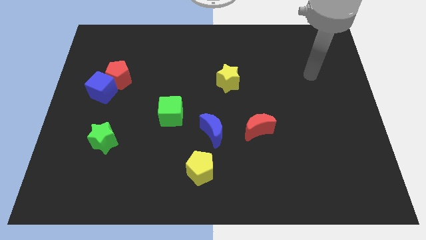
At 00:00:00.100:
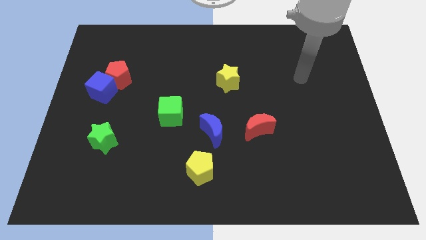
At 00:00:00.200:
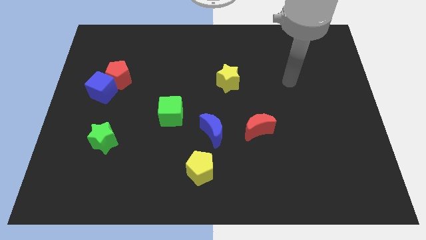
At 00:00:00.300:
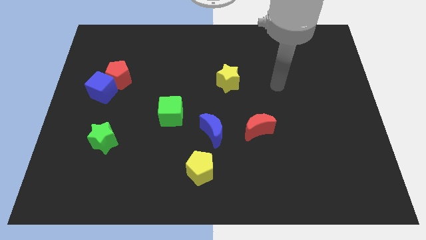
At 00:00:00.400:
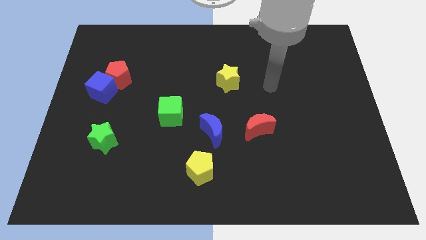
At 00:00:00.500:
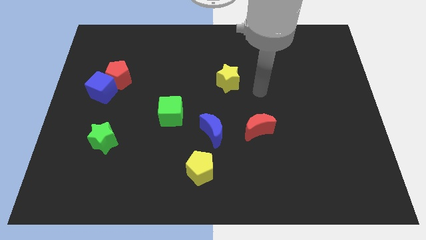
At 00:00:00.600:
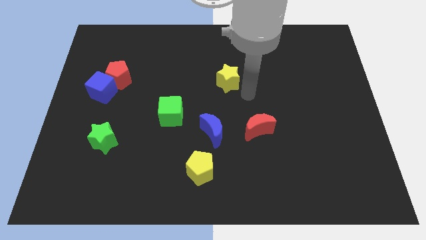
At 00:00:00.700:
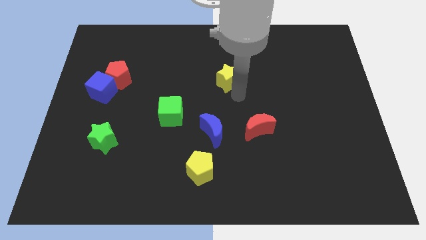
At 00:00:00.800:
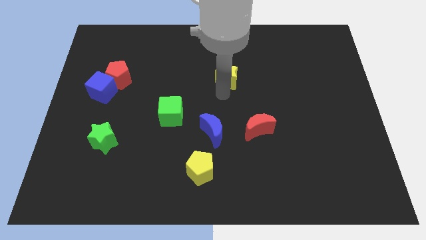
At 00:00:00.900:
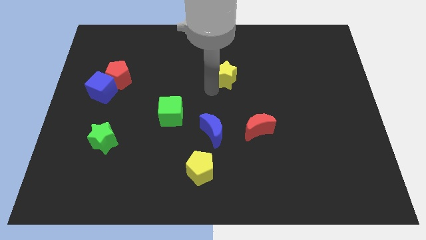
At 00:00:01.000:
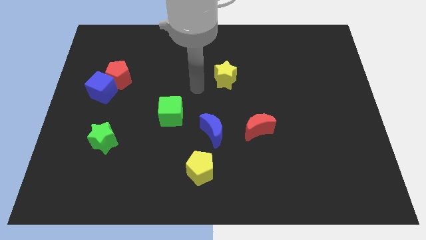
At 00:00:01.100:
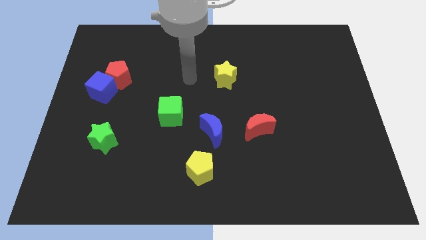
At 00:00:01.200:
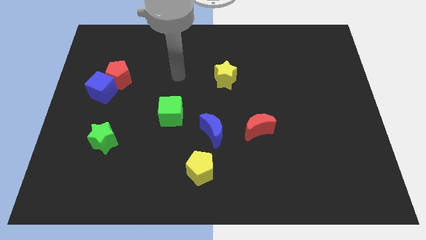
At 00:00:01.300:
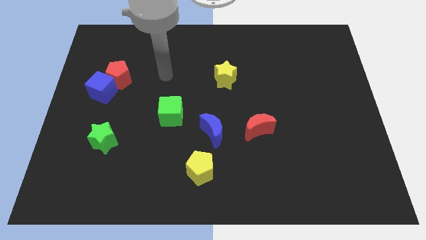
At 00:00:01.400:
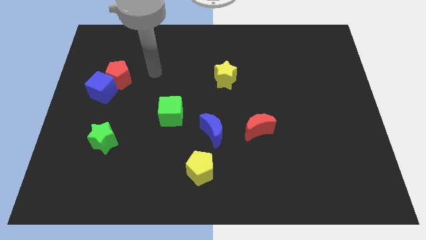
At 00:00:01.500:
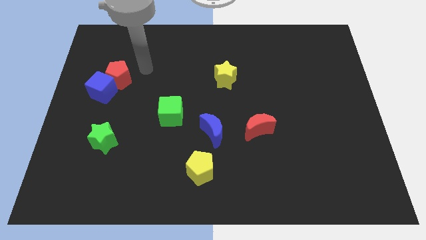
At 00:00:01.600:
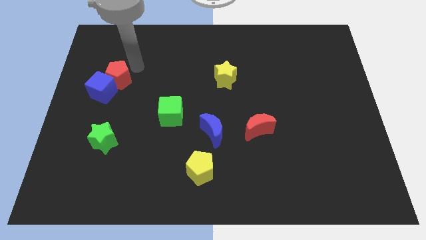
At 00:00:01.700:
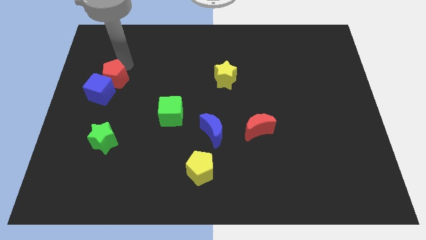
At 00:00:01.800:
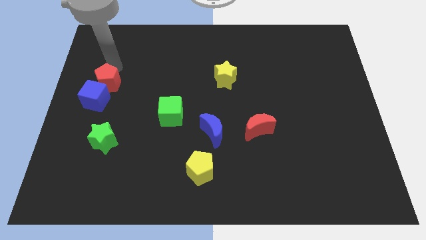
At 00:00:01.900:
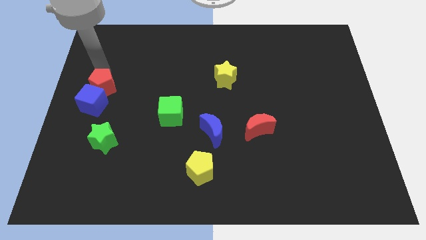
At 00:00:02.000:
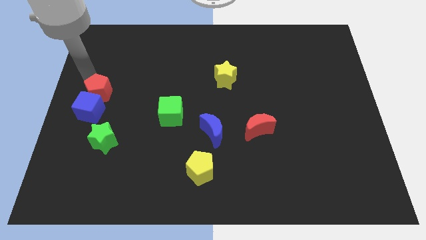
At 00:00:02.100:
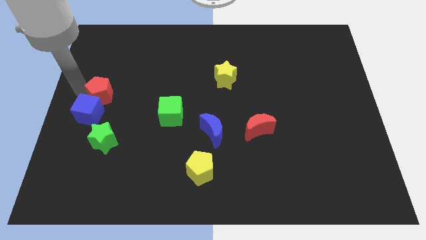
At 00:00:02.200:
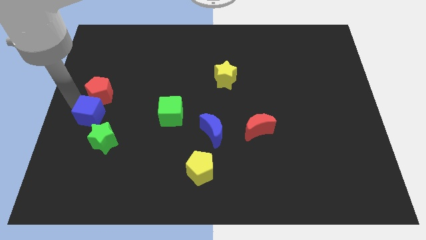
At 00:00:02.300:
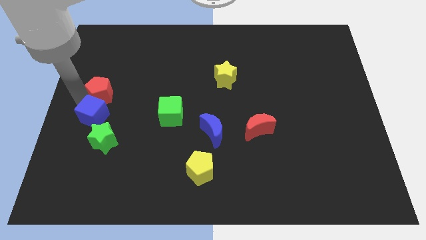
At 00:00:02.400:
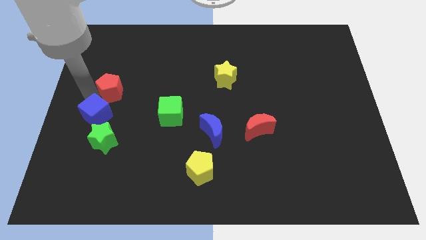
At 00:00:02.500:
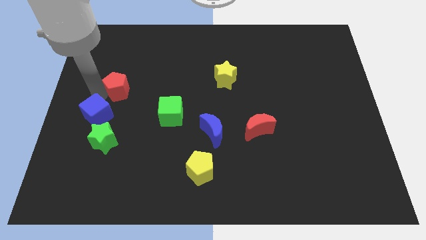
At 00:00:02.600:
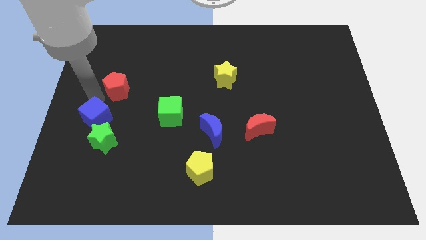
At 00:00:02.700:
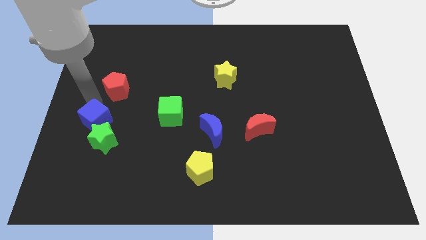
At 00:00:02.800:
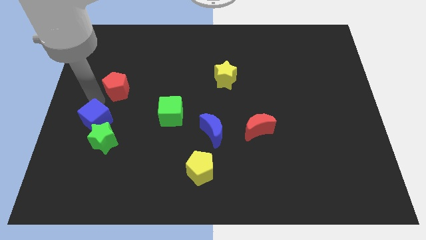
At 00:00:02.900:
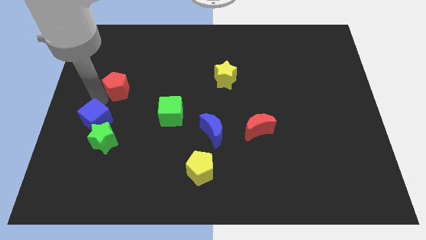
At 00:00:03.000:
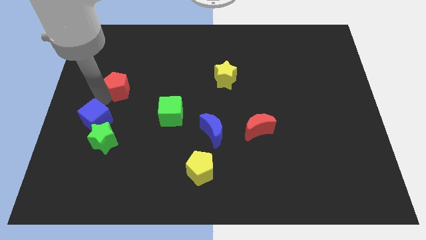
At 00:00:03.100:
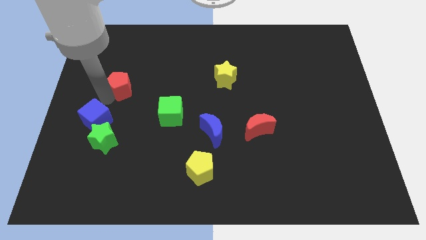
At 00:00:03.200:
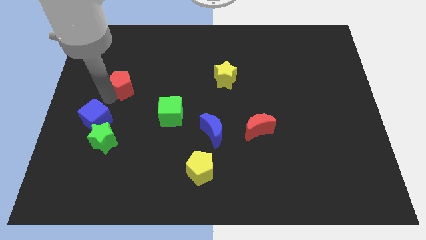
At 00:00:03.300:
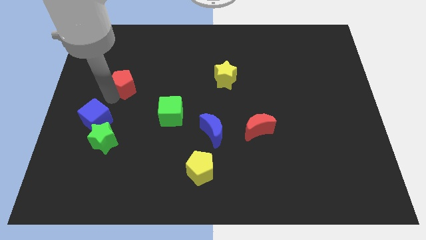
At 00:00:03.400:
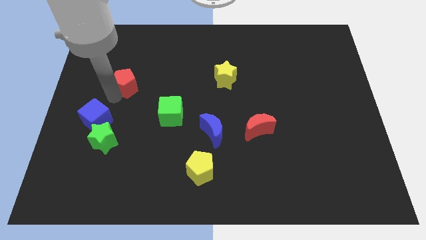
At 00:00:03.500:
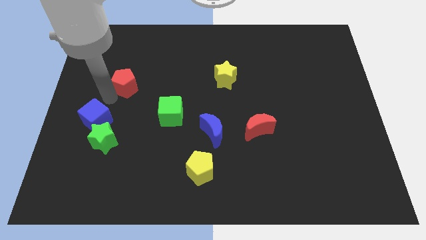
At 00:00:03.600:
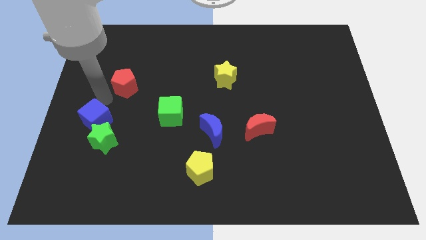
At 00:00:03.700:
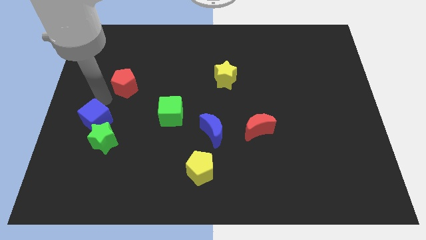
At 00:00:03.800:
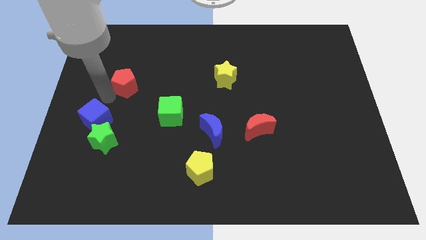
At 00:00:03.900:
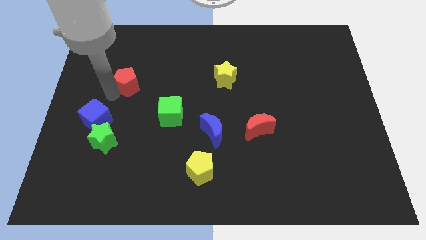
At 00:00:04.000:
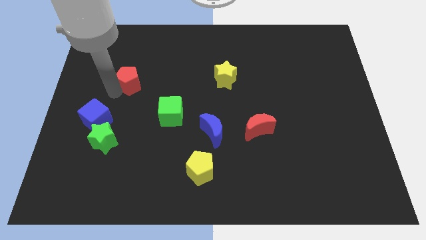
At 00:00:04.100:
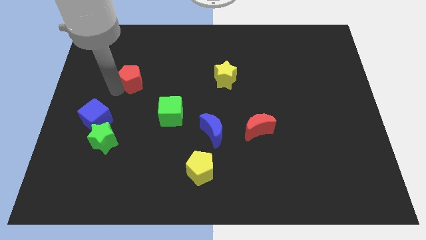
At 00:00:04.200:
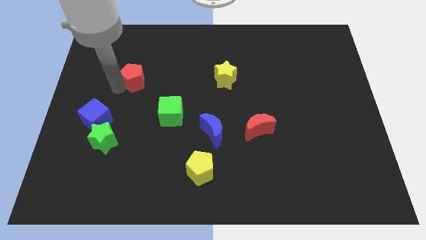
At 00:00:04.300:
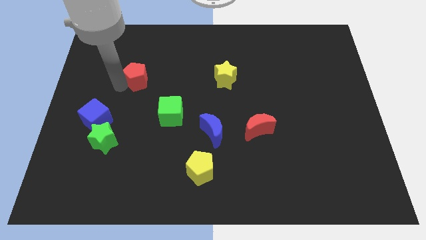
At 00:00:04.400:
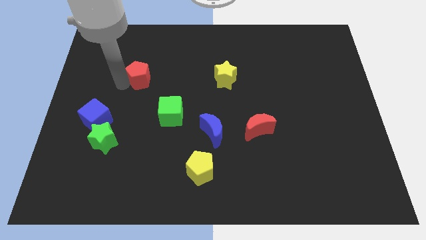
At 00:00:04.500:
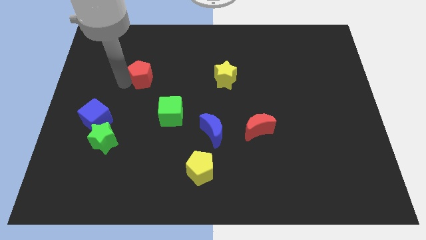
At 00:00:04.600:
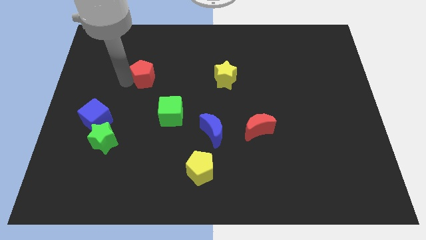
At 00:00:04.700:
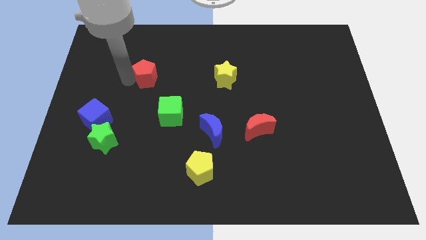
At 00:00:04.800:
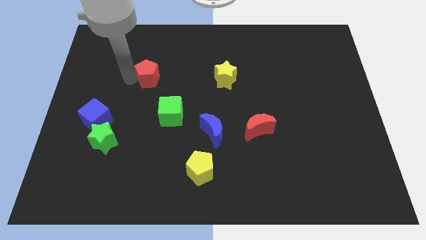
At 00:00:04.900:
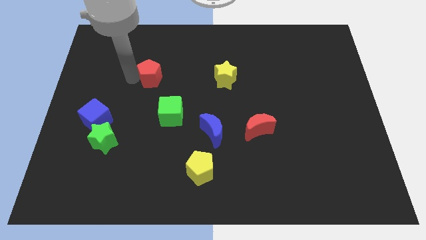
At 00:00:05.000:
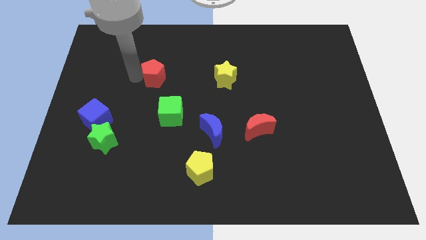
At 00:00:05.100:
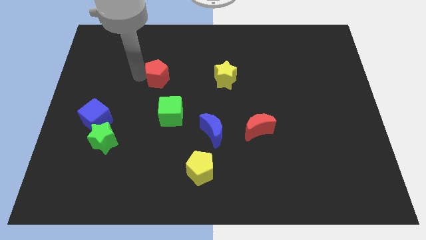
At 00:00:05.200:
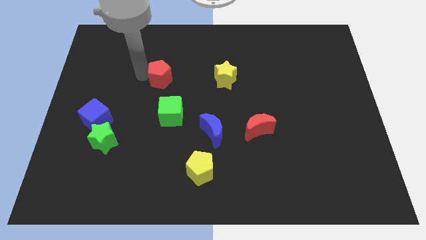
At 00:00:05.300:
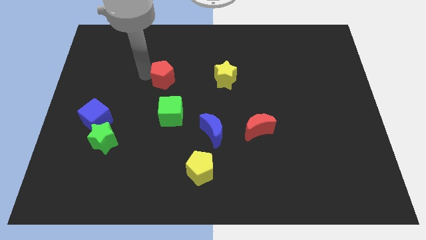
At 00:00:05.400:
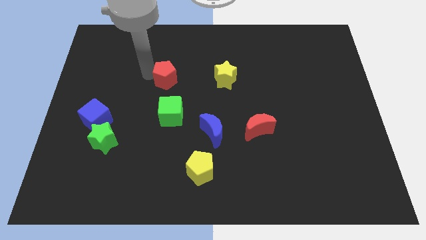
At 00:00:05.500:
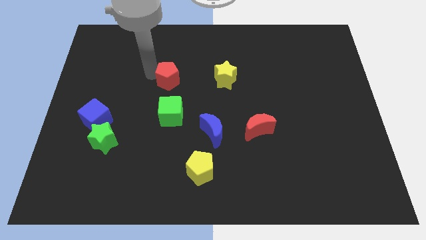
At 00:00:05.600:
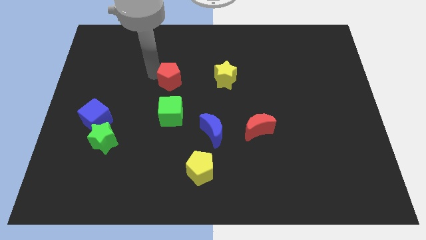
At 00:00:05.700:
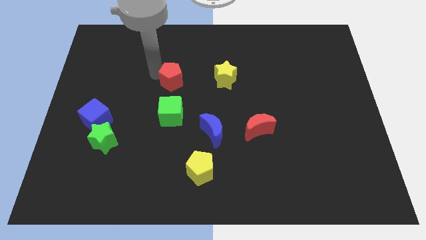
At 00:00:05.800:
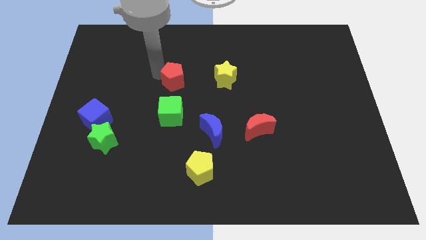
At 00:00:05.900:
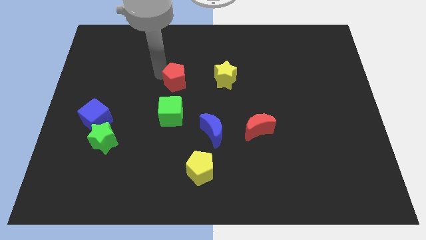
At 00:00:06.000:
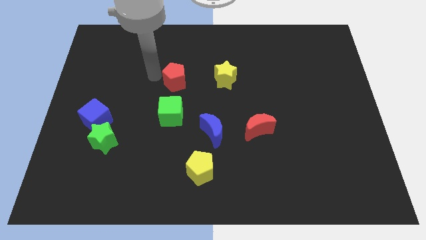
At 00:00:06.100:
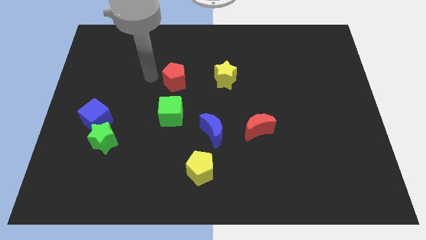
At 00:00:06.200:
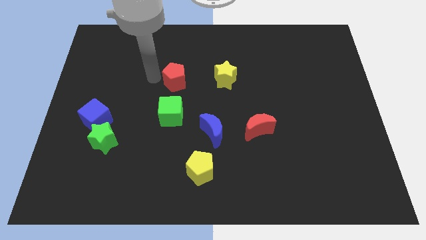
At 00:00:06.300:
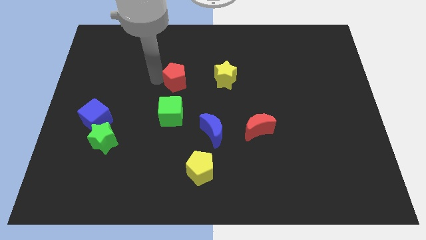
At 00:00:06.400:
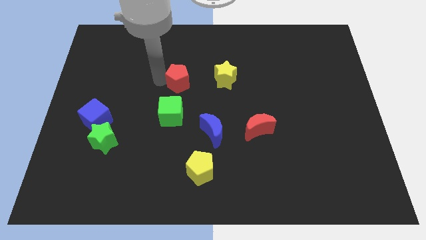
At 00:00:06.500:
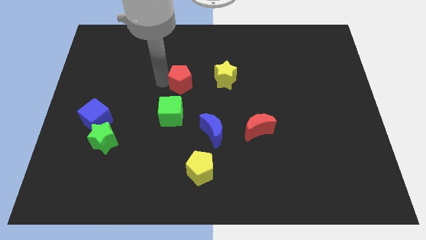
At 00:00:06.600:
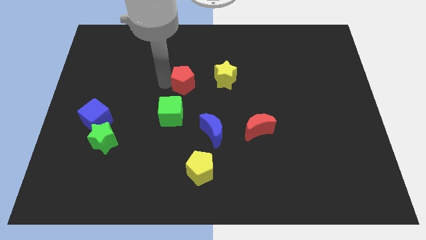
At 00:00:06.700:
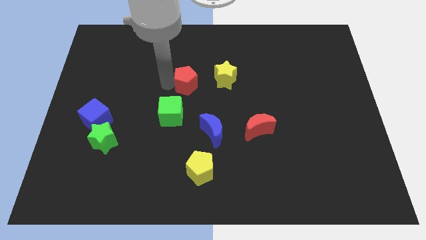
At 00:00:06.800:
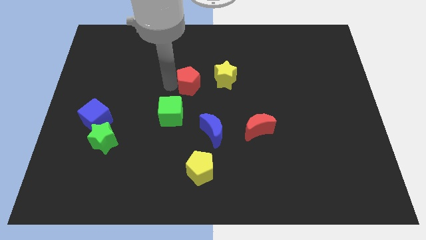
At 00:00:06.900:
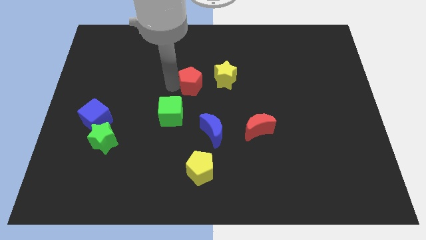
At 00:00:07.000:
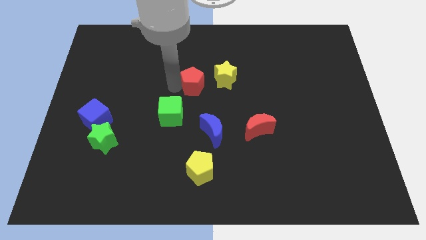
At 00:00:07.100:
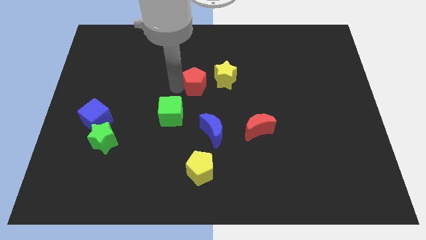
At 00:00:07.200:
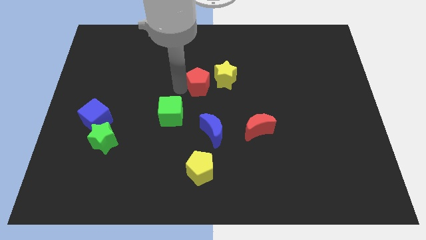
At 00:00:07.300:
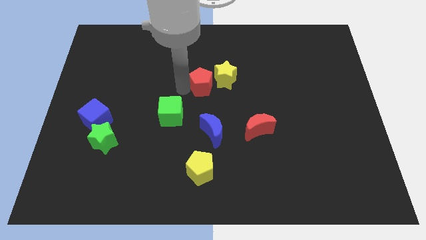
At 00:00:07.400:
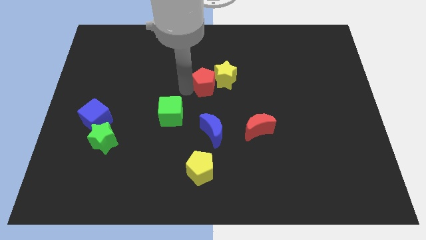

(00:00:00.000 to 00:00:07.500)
move the red pentagon to the yellow star
